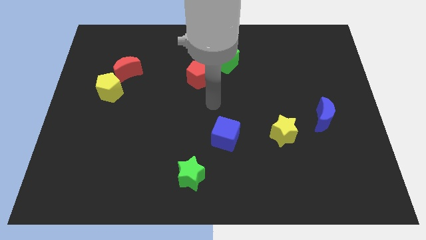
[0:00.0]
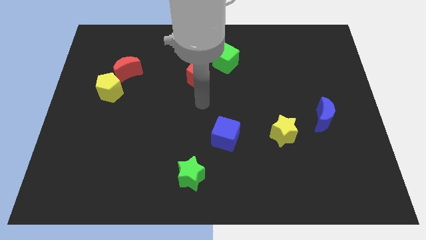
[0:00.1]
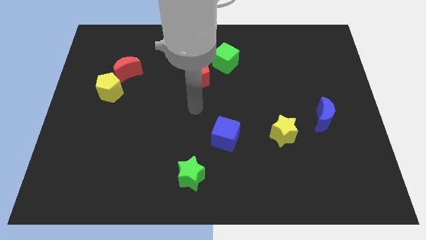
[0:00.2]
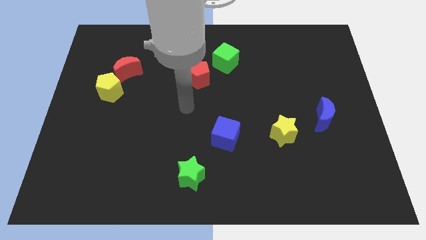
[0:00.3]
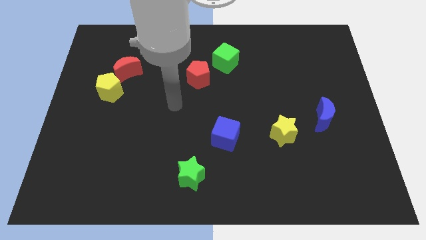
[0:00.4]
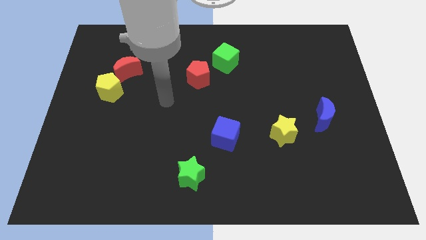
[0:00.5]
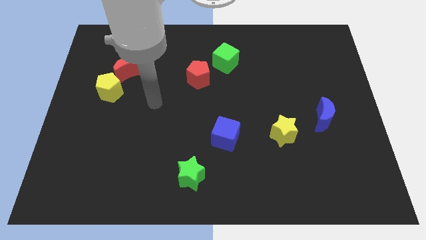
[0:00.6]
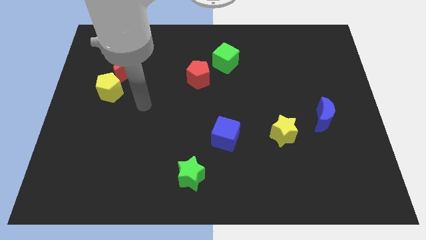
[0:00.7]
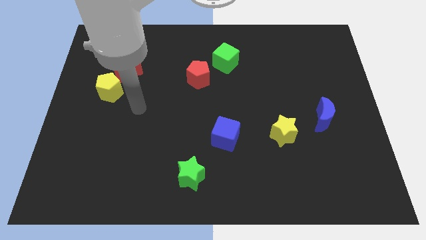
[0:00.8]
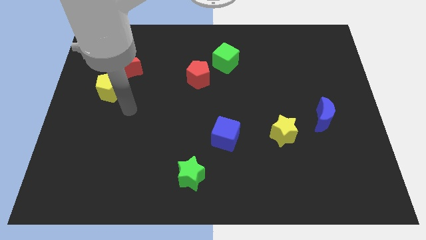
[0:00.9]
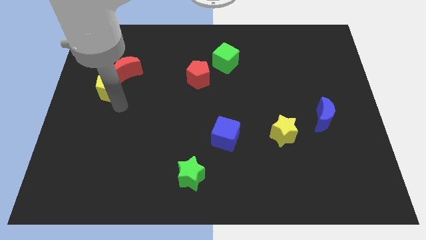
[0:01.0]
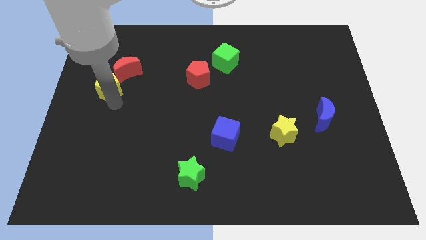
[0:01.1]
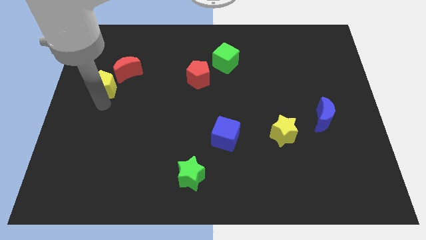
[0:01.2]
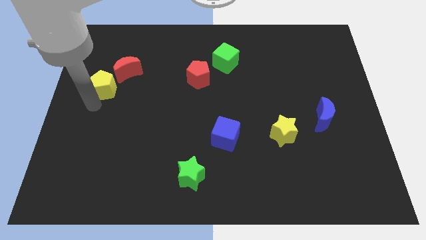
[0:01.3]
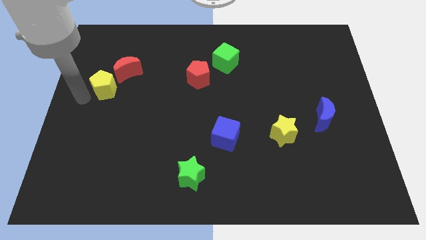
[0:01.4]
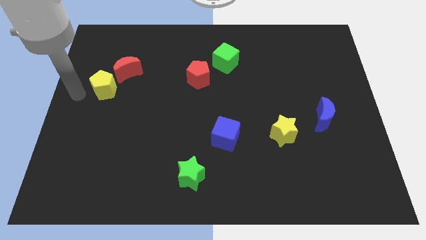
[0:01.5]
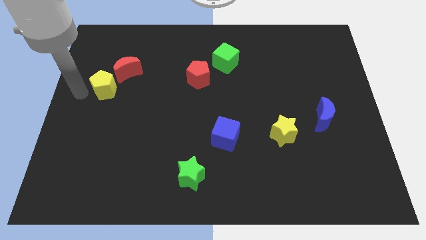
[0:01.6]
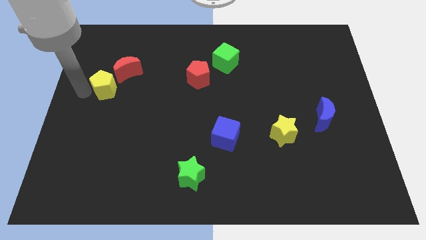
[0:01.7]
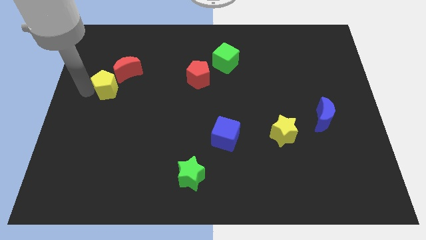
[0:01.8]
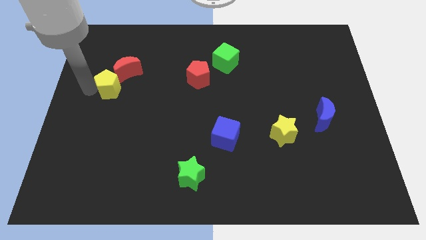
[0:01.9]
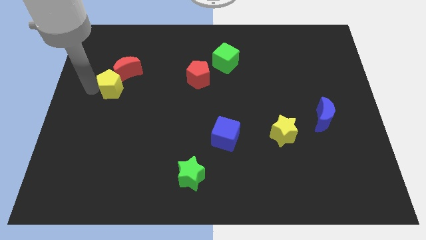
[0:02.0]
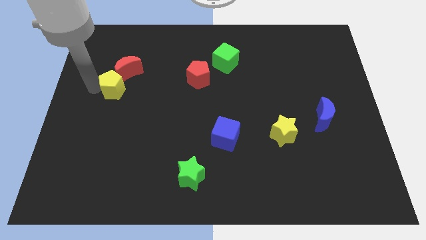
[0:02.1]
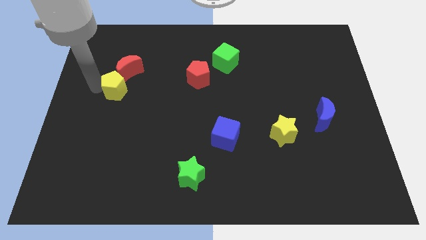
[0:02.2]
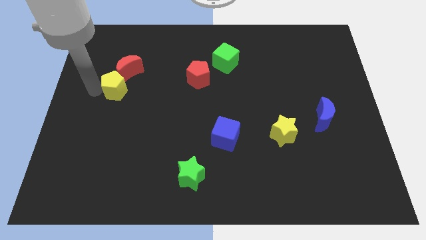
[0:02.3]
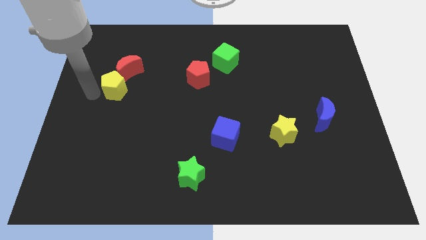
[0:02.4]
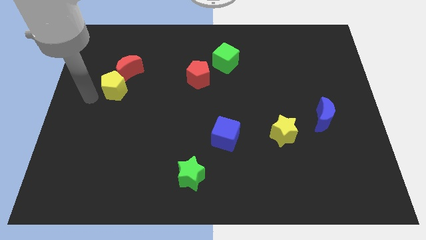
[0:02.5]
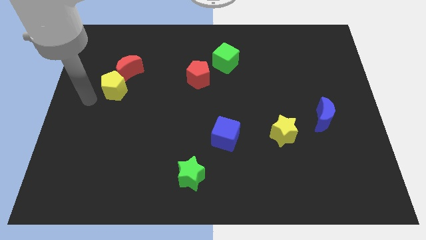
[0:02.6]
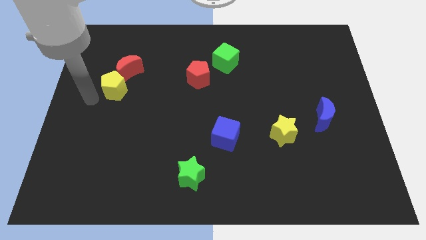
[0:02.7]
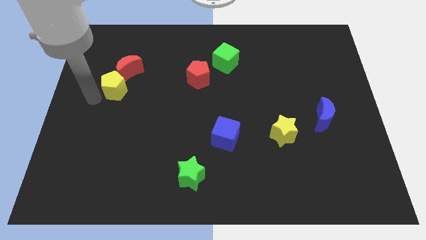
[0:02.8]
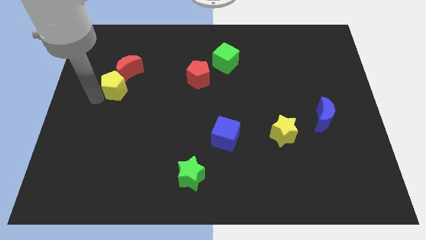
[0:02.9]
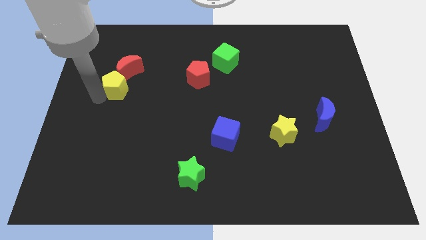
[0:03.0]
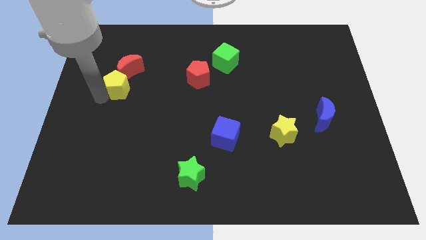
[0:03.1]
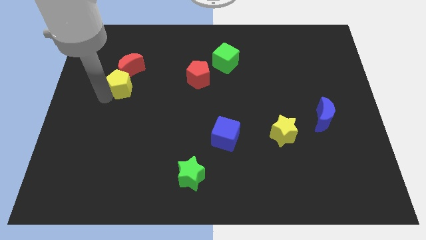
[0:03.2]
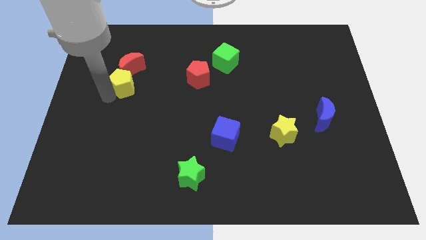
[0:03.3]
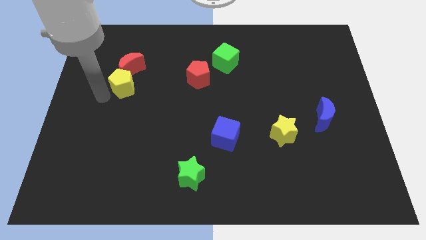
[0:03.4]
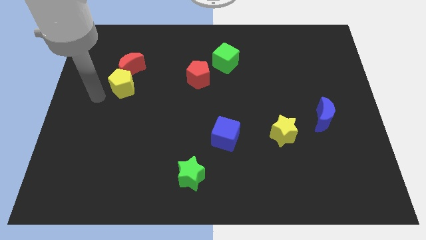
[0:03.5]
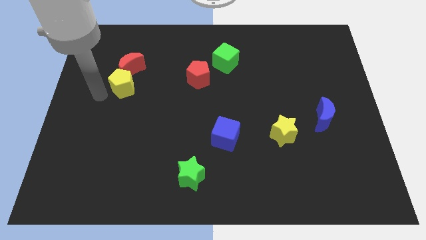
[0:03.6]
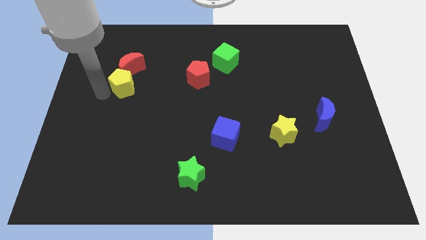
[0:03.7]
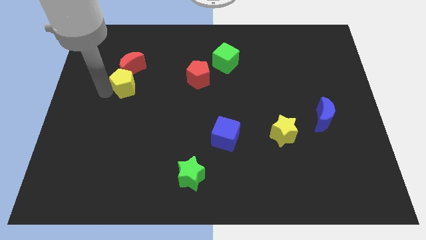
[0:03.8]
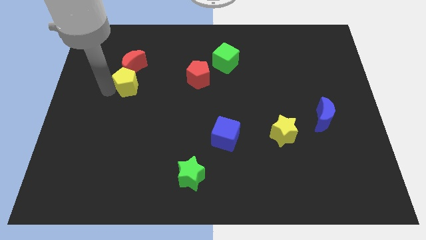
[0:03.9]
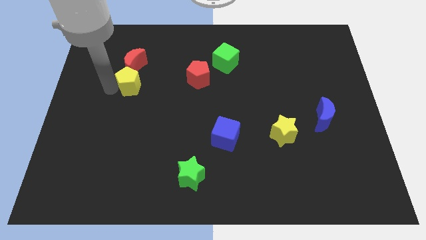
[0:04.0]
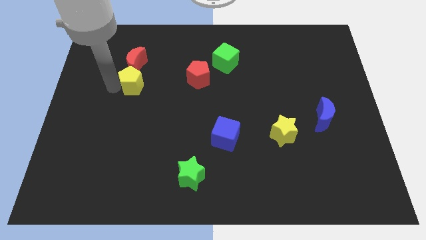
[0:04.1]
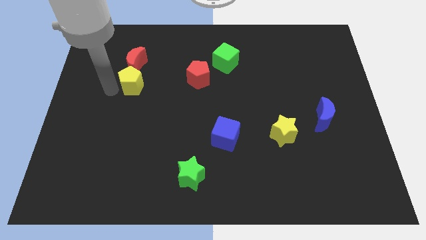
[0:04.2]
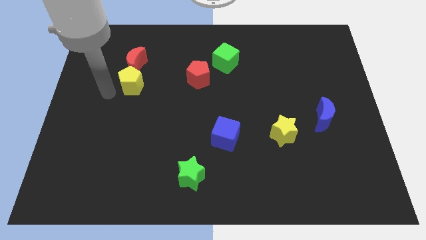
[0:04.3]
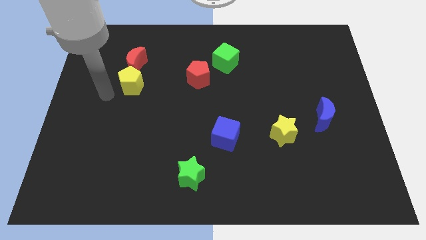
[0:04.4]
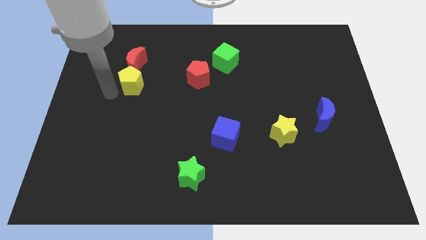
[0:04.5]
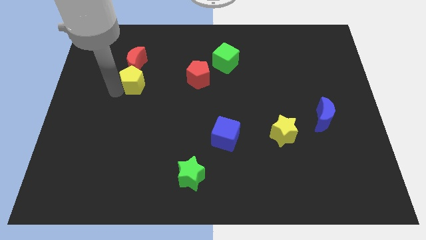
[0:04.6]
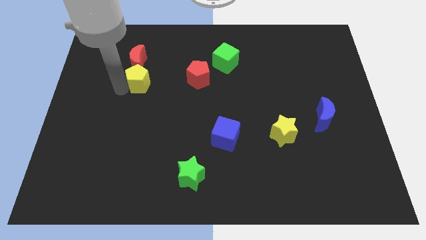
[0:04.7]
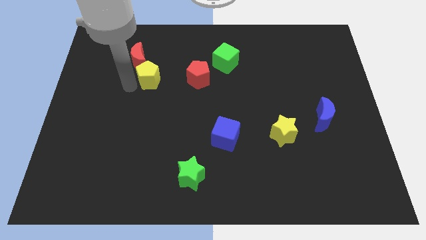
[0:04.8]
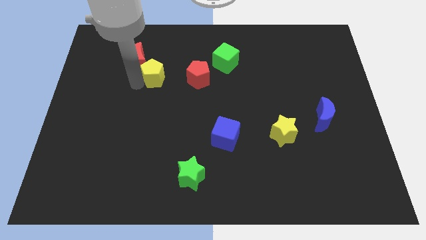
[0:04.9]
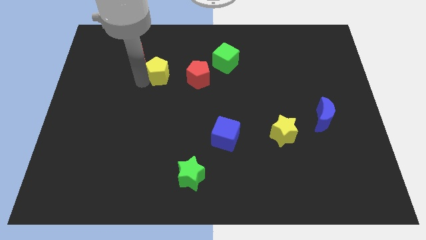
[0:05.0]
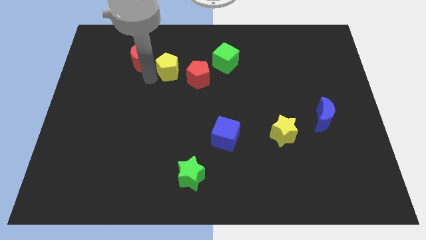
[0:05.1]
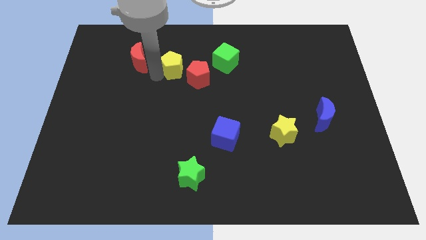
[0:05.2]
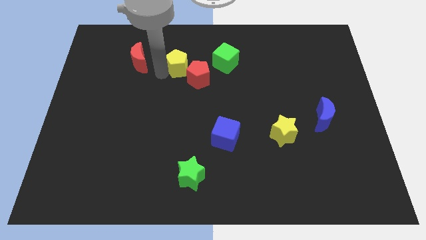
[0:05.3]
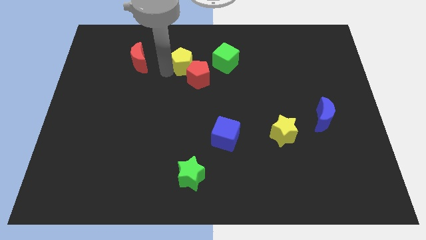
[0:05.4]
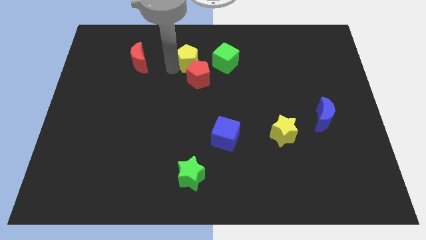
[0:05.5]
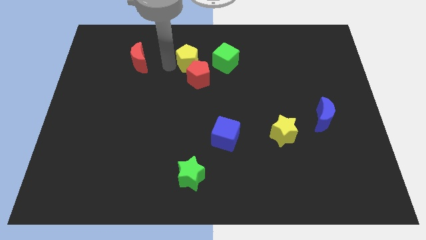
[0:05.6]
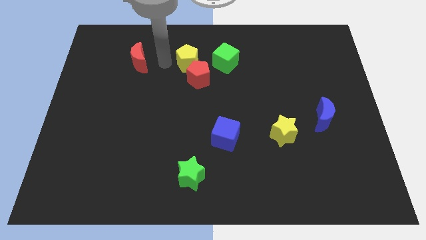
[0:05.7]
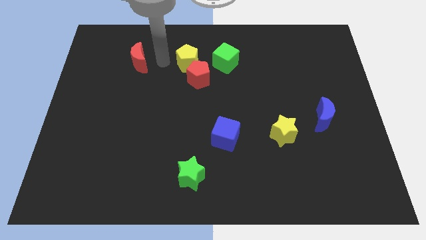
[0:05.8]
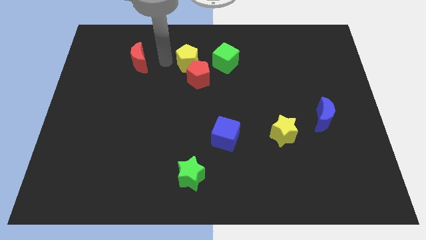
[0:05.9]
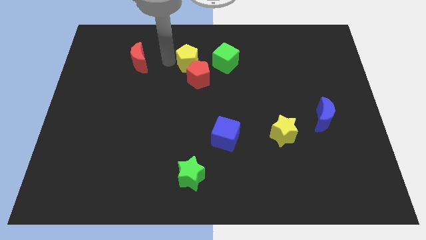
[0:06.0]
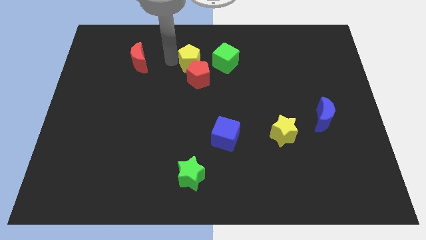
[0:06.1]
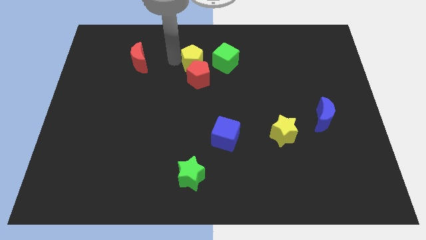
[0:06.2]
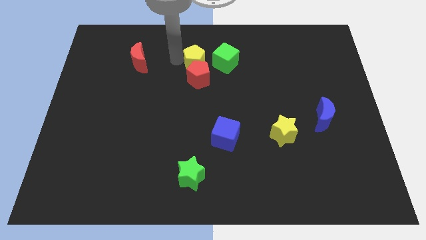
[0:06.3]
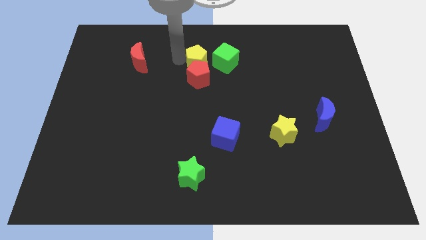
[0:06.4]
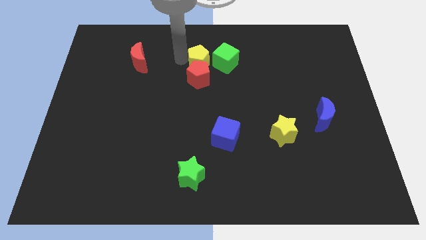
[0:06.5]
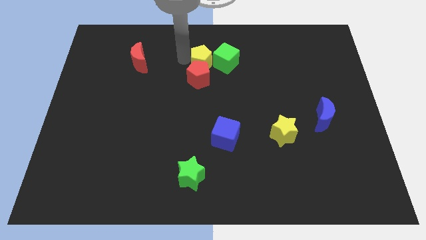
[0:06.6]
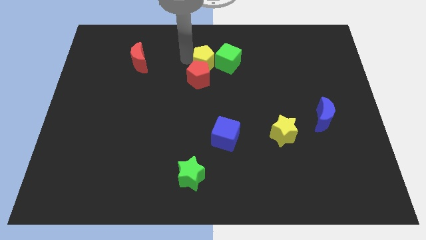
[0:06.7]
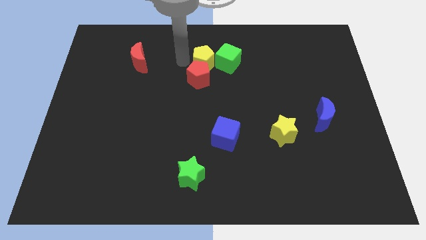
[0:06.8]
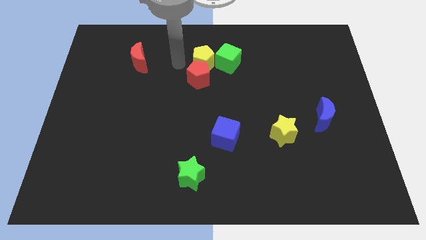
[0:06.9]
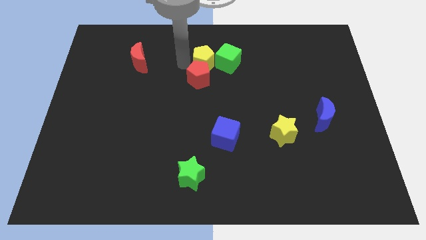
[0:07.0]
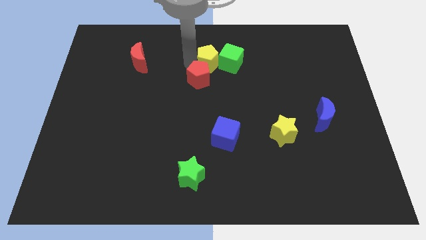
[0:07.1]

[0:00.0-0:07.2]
move the yellow pentagon to the green cube
